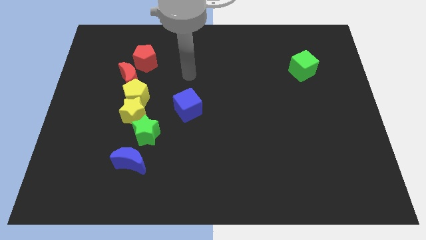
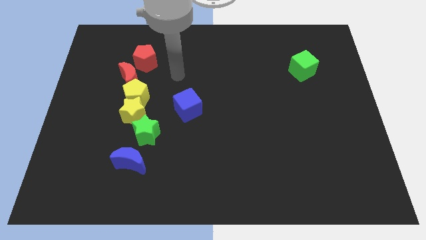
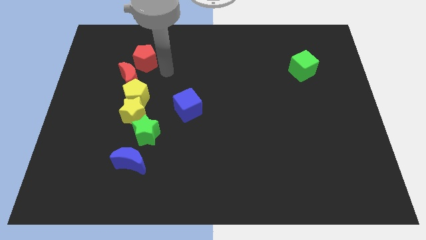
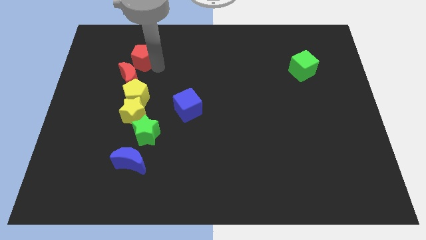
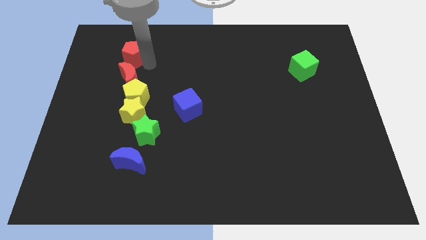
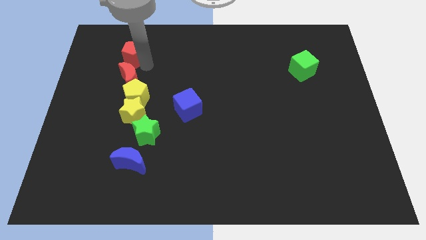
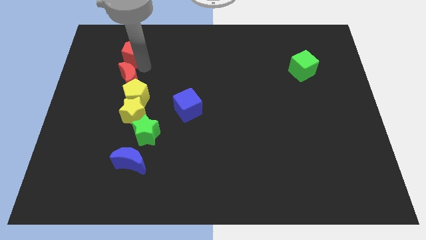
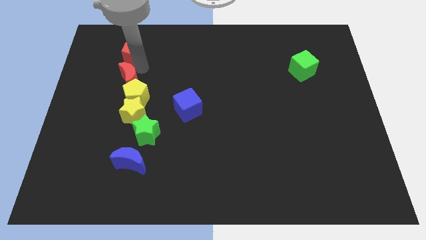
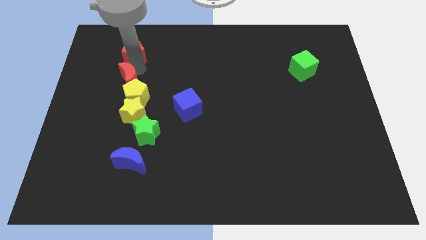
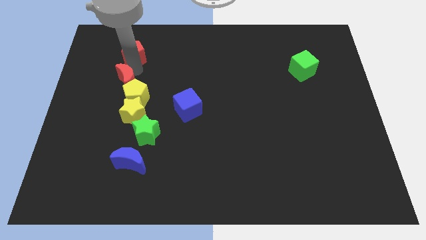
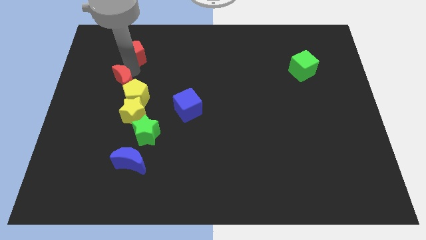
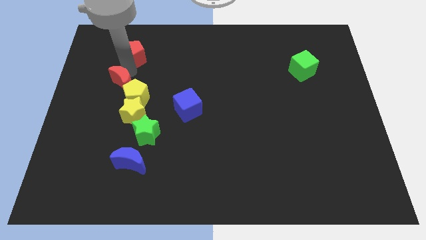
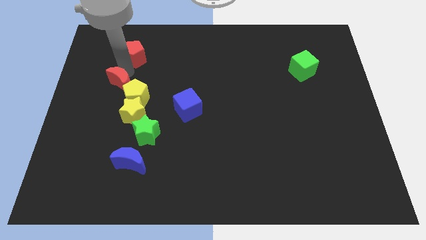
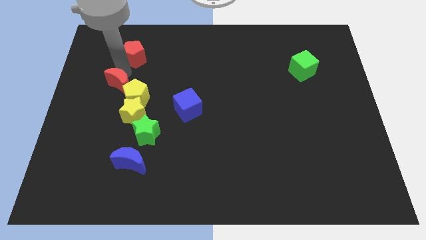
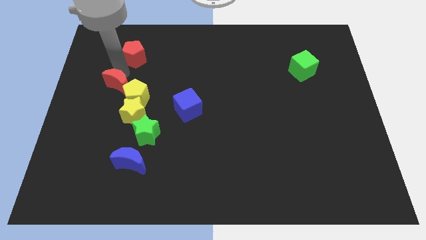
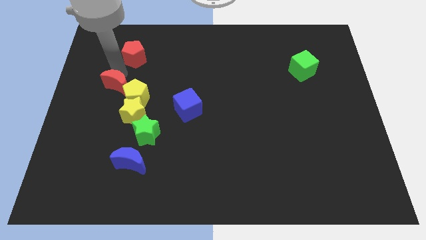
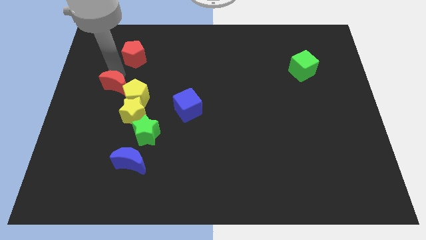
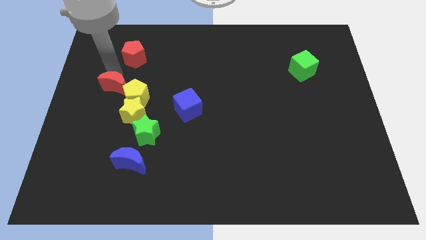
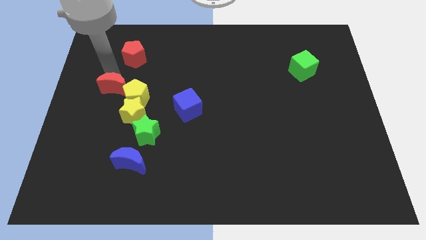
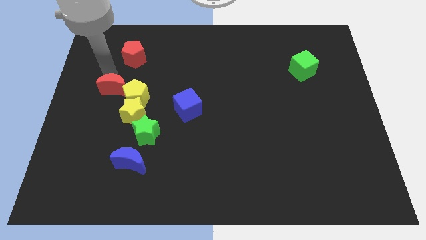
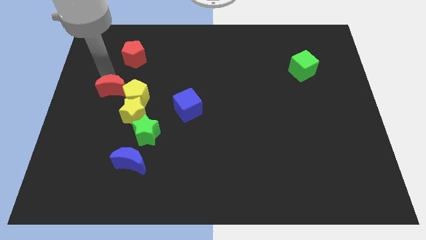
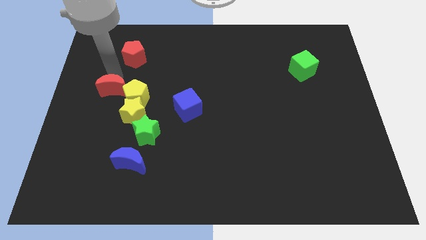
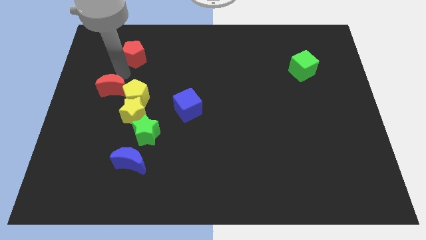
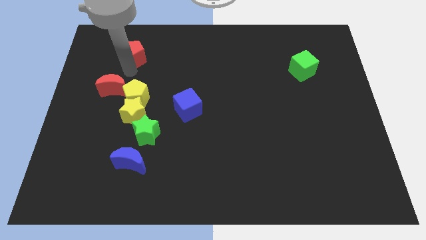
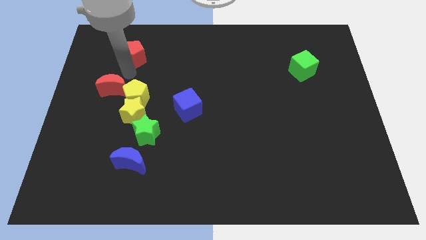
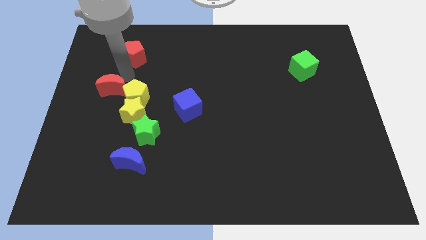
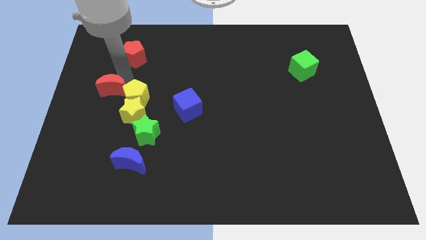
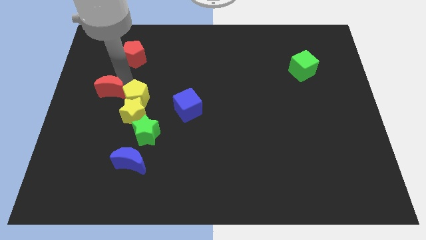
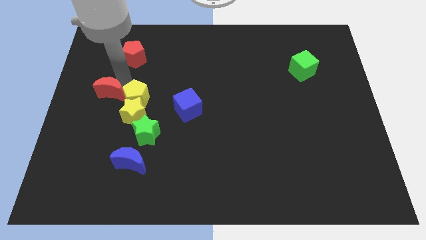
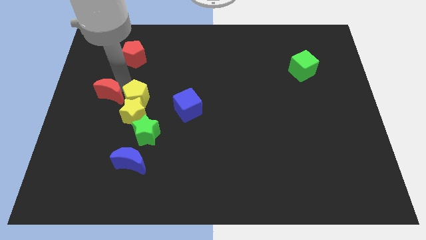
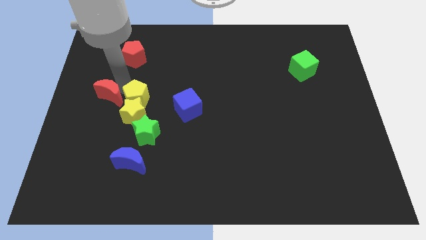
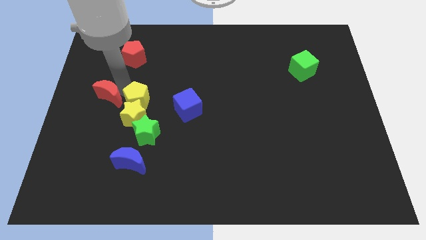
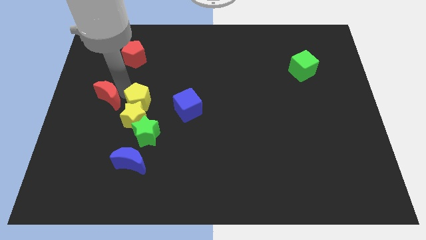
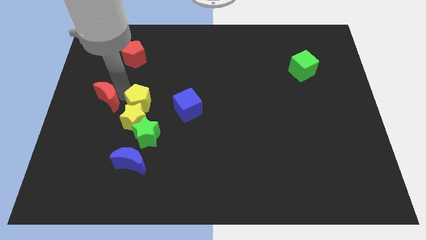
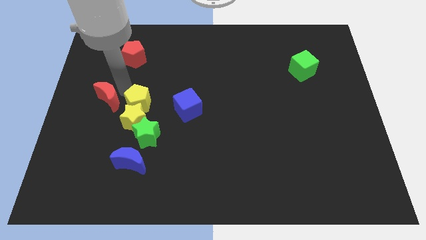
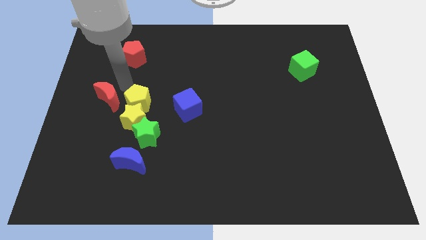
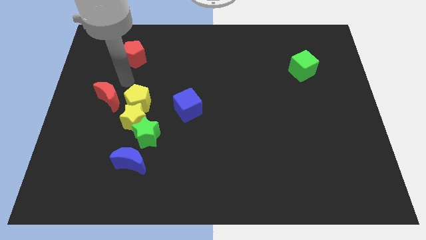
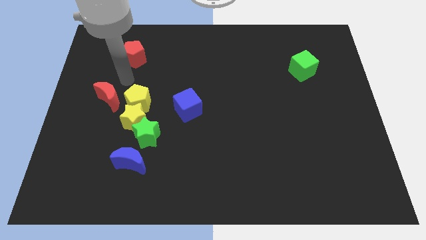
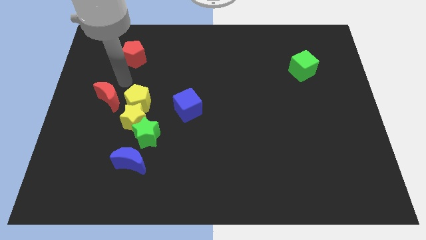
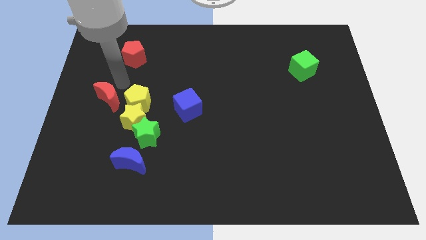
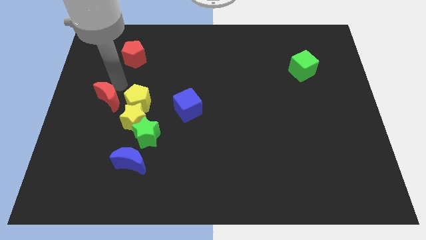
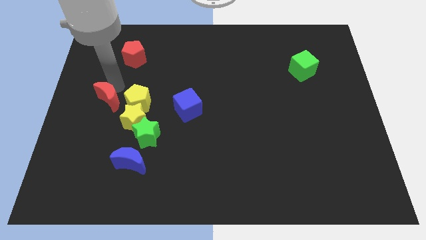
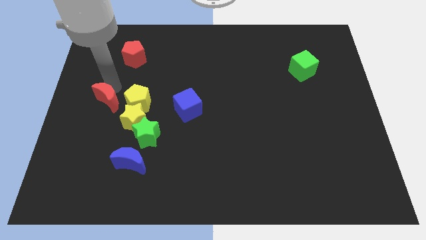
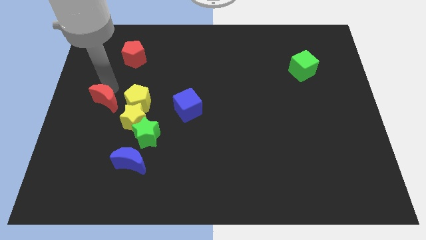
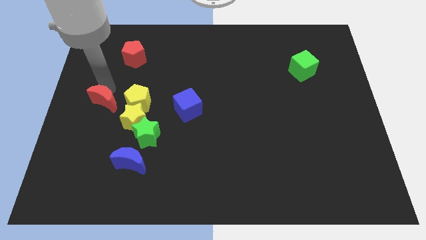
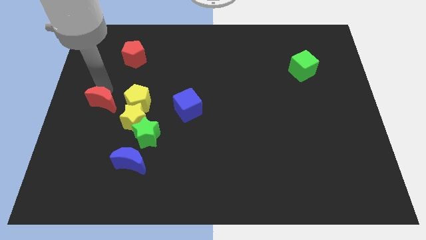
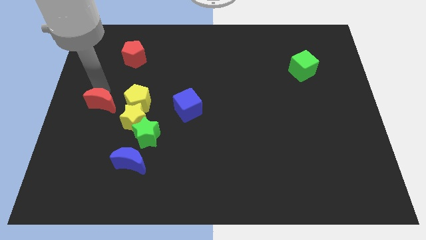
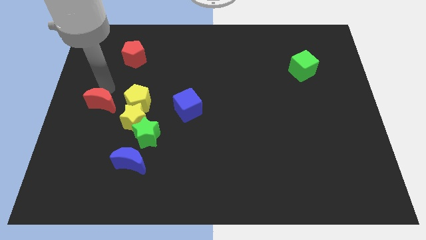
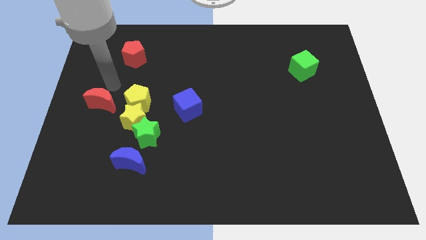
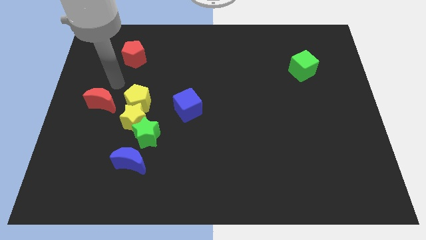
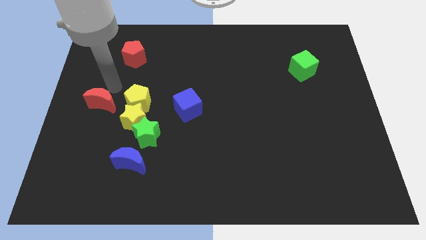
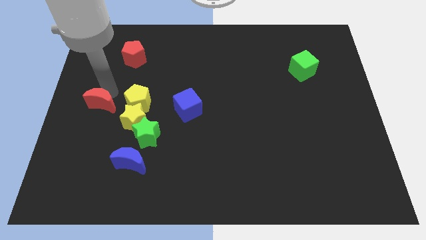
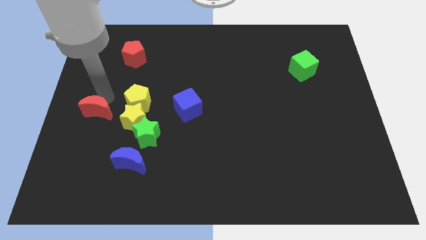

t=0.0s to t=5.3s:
put the red moon left of the yellow star

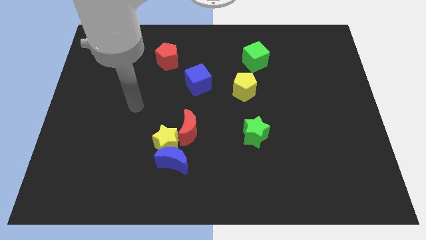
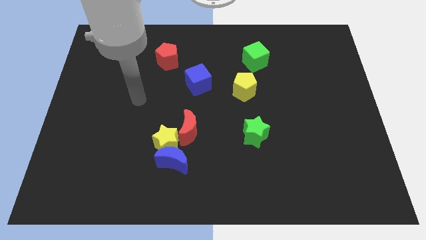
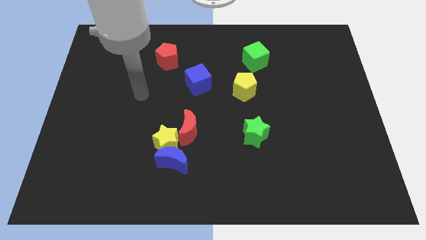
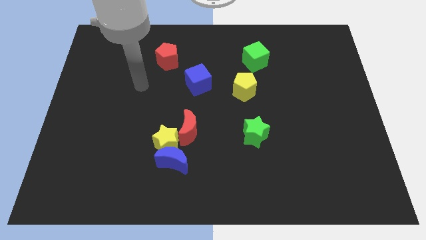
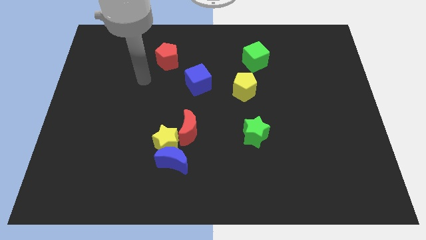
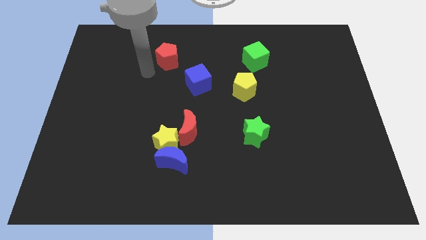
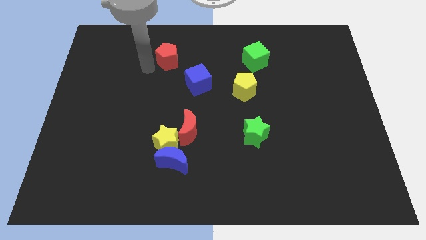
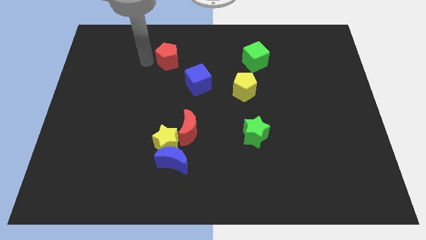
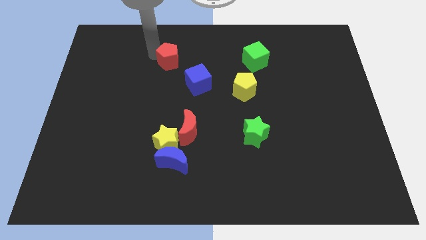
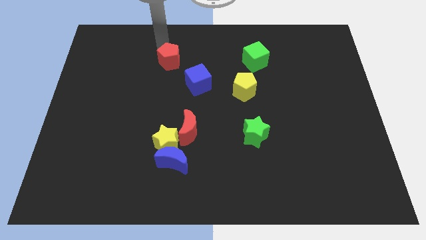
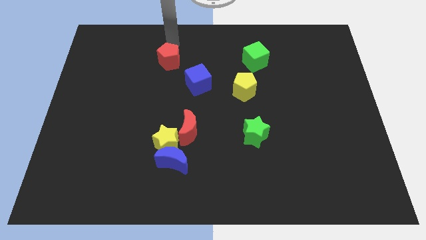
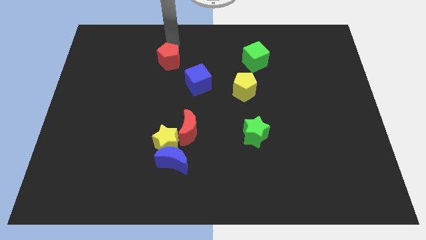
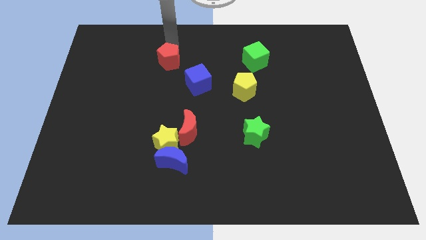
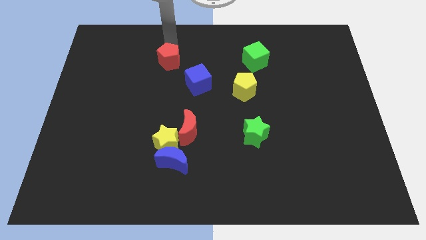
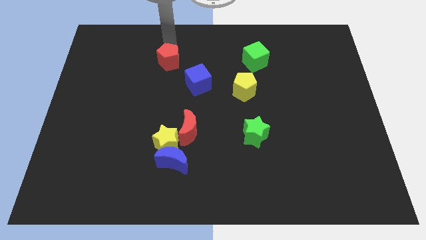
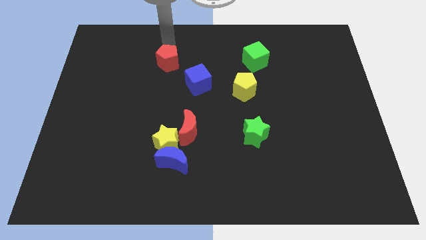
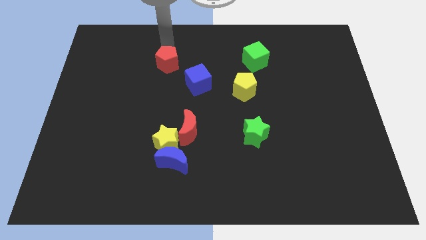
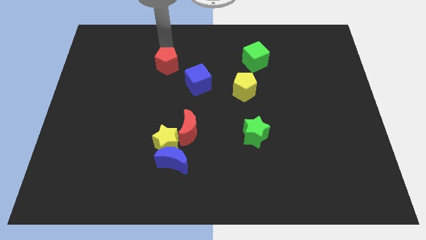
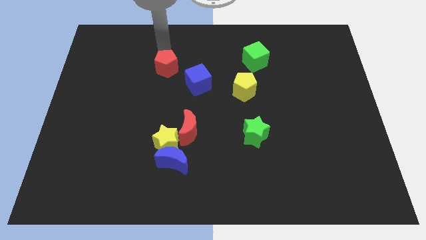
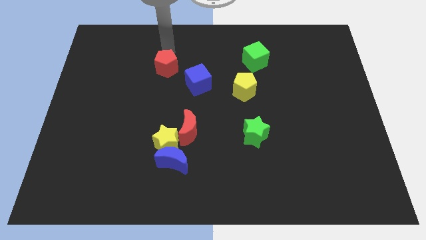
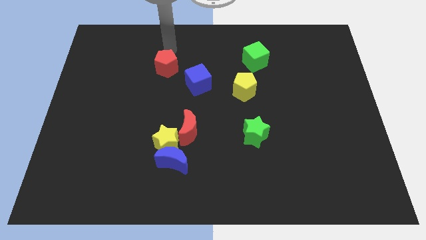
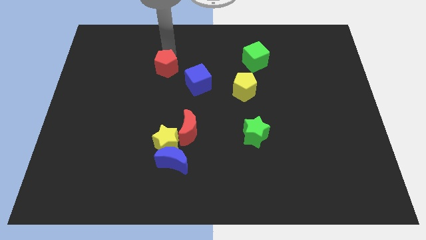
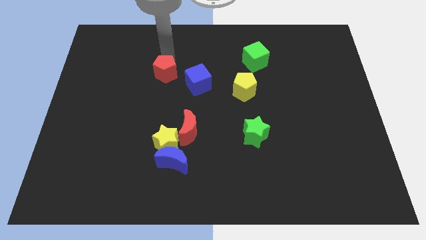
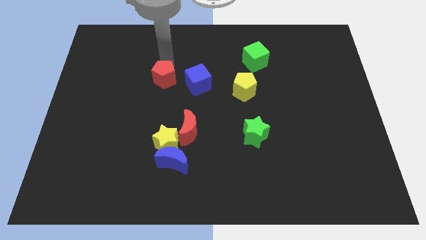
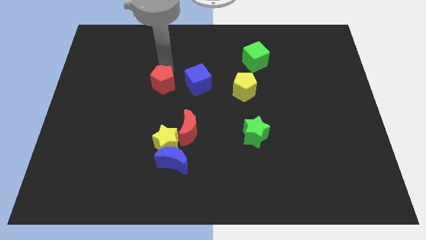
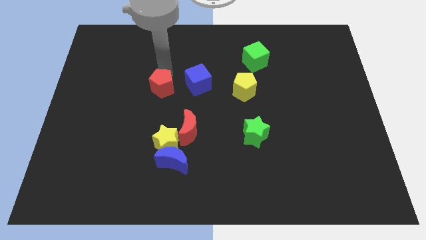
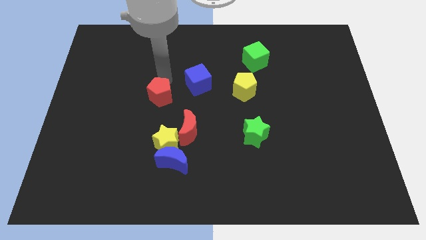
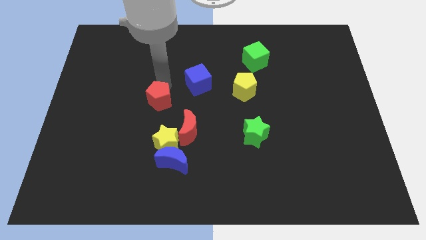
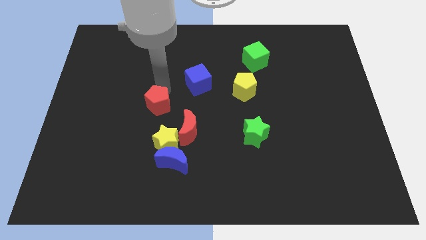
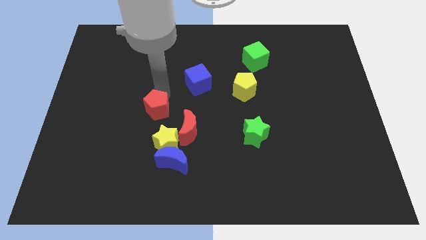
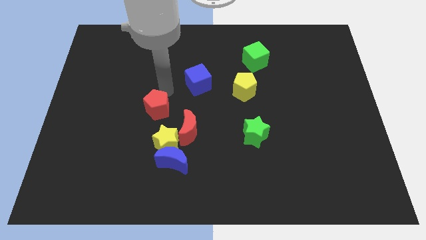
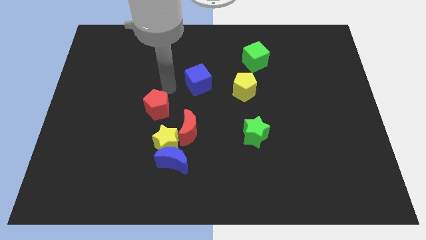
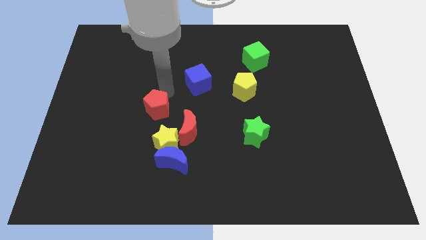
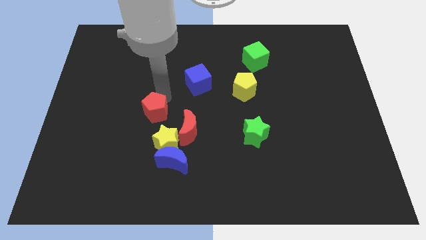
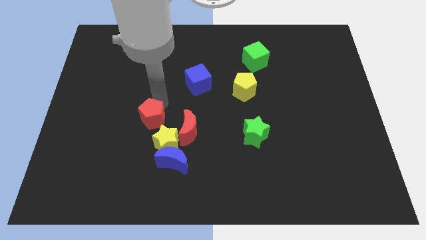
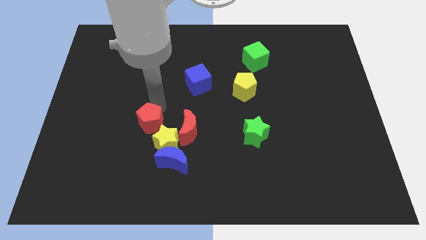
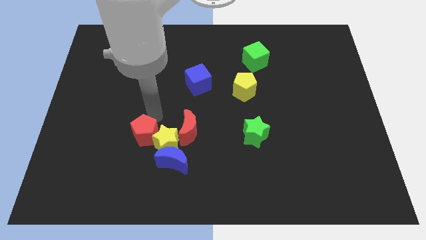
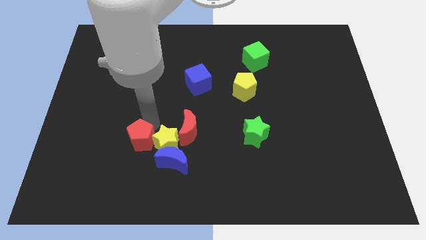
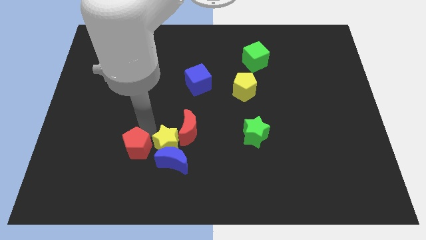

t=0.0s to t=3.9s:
push the red pentagon to the left of the blue moon
